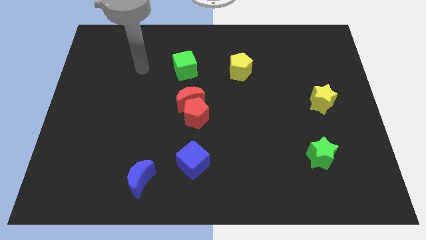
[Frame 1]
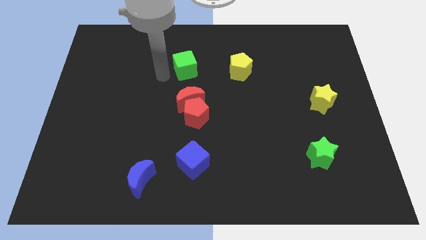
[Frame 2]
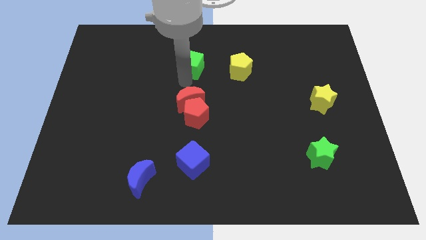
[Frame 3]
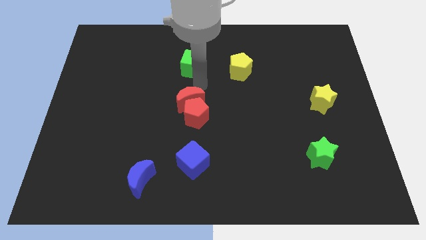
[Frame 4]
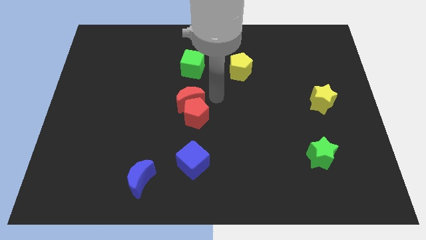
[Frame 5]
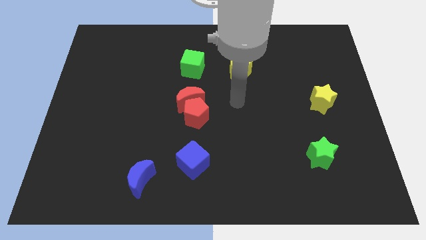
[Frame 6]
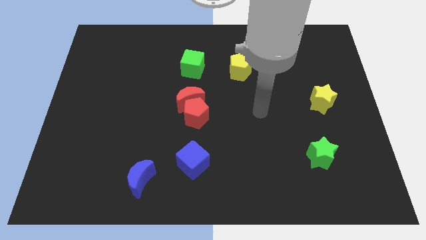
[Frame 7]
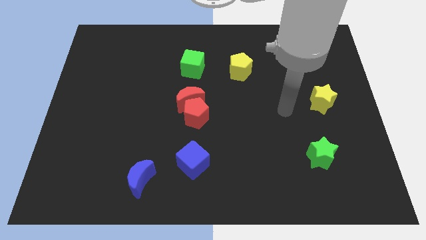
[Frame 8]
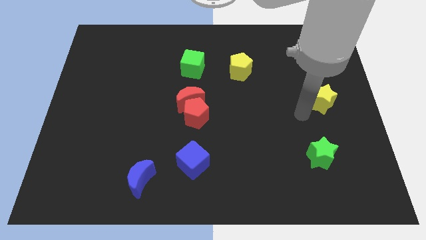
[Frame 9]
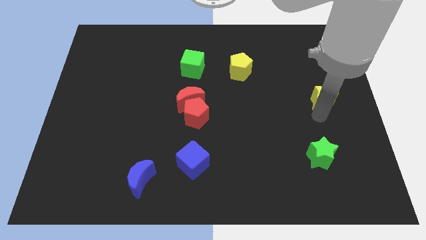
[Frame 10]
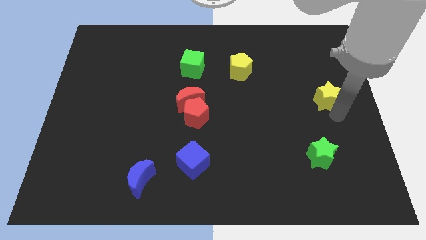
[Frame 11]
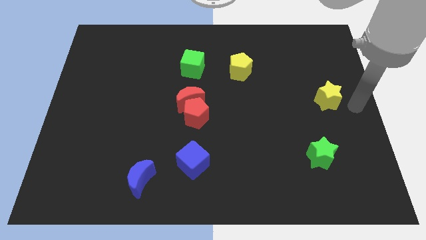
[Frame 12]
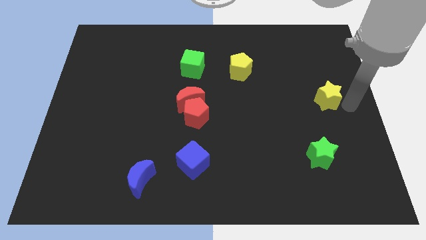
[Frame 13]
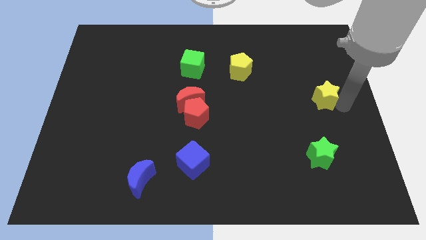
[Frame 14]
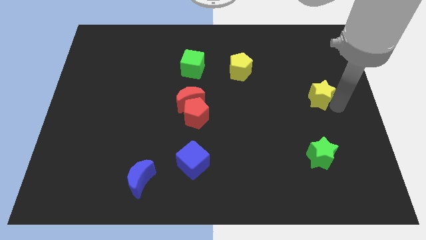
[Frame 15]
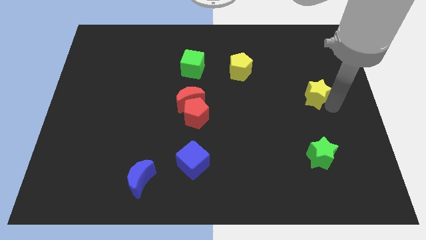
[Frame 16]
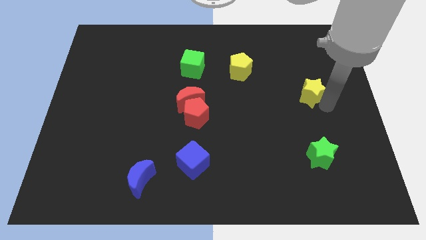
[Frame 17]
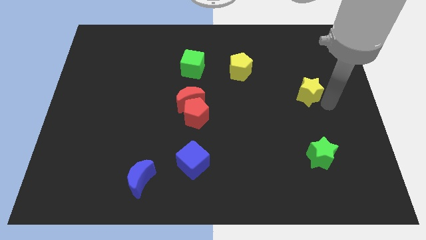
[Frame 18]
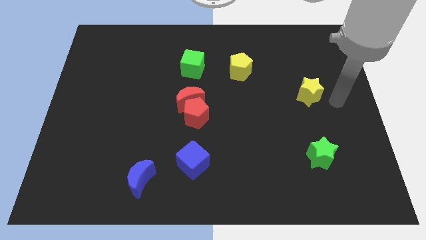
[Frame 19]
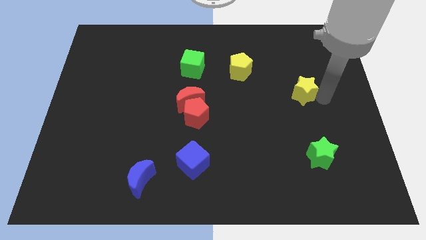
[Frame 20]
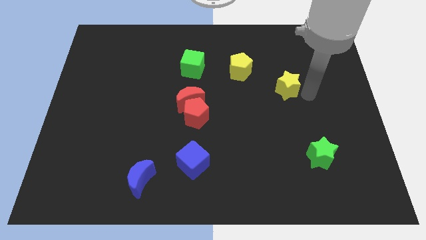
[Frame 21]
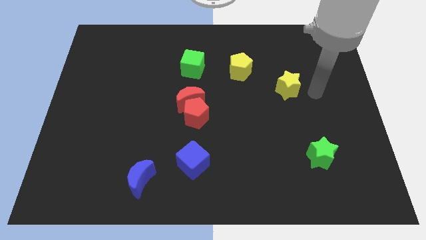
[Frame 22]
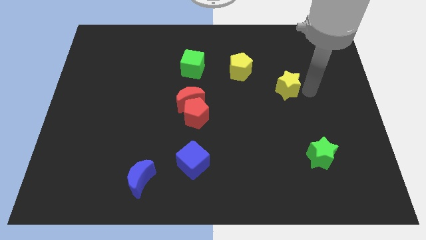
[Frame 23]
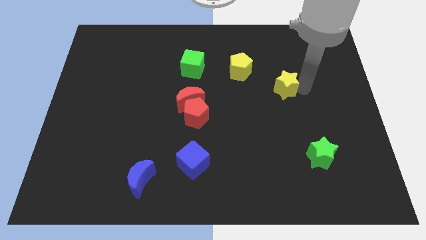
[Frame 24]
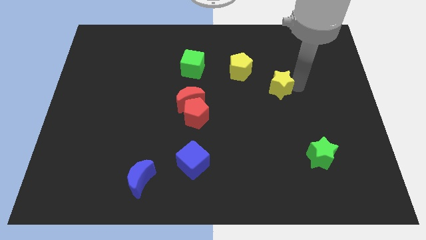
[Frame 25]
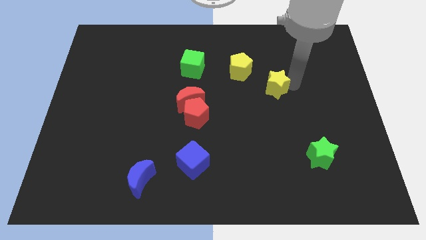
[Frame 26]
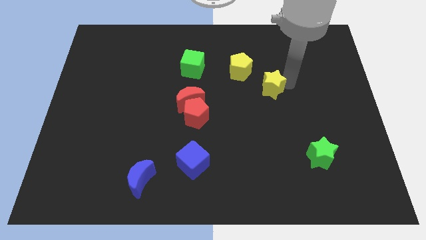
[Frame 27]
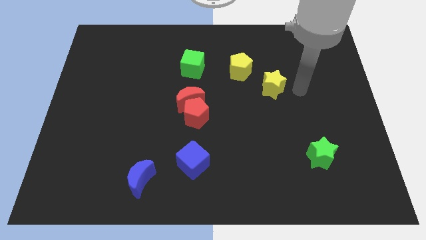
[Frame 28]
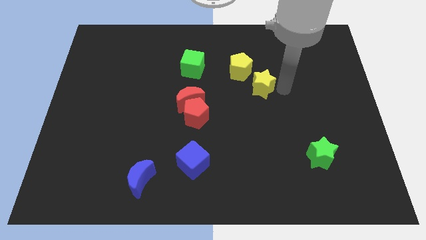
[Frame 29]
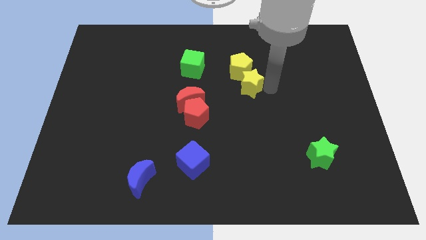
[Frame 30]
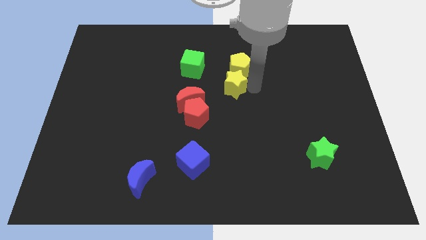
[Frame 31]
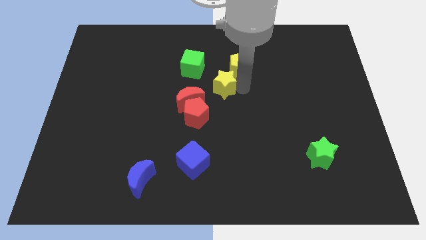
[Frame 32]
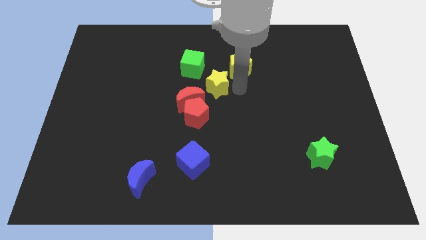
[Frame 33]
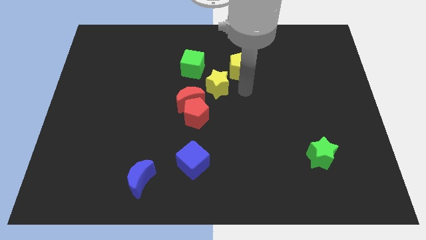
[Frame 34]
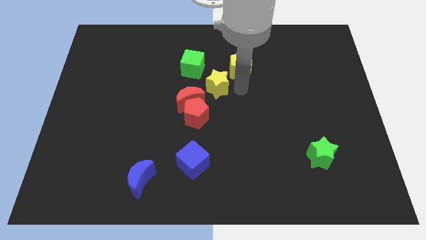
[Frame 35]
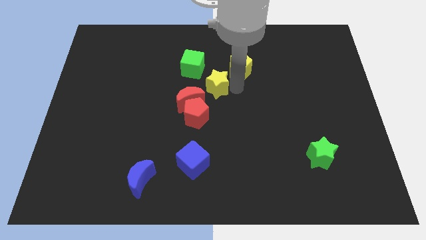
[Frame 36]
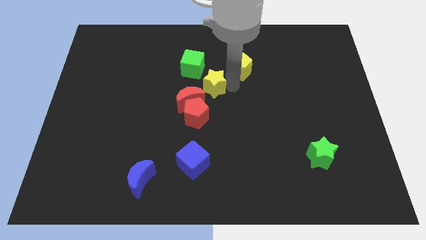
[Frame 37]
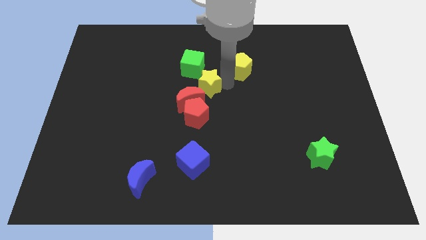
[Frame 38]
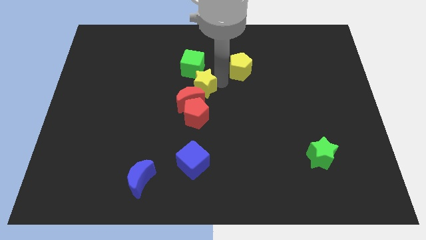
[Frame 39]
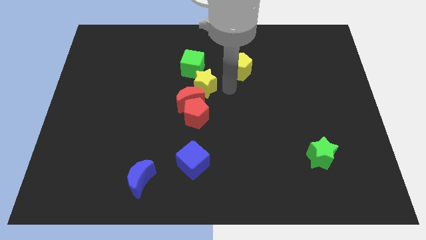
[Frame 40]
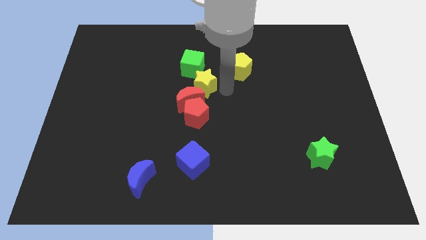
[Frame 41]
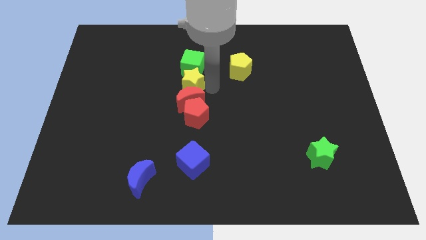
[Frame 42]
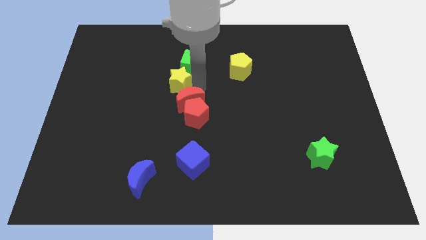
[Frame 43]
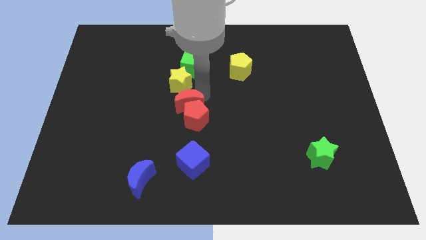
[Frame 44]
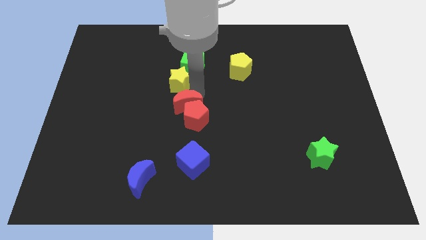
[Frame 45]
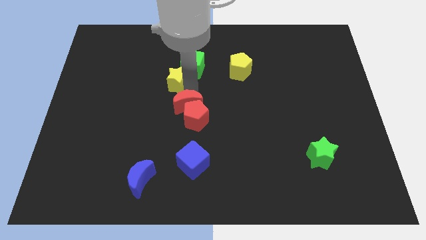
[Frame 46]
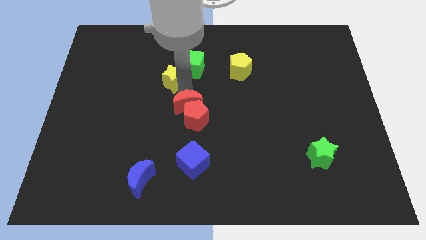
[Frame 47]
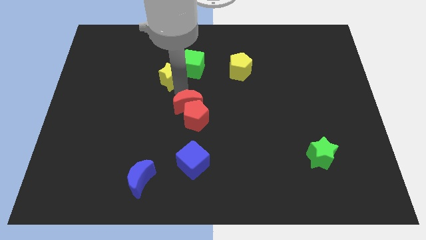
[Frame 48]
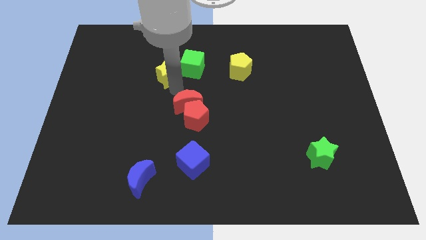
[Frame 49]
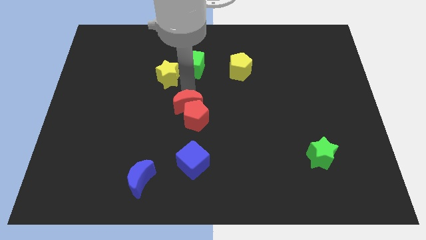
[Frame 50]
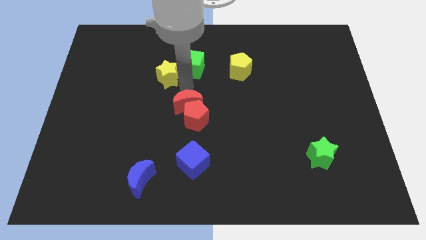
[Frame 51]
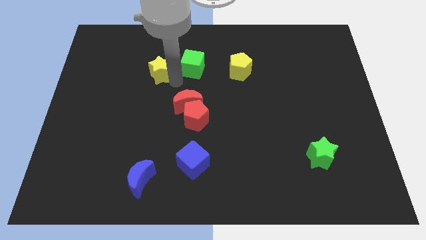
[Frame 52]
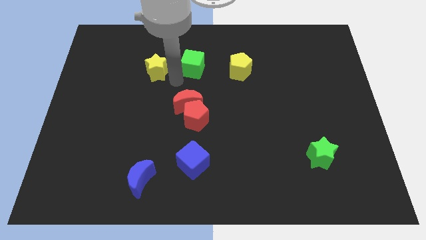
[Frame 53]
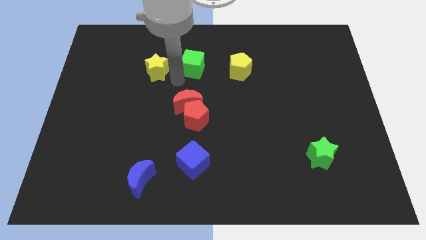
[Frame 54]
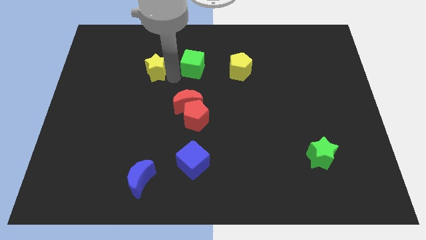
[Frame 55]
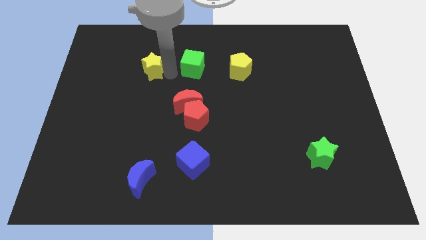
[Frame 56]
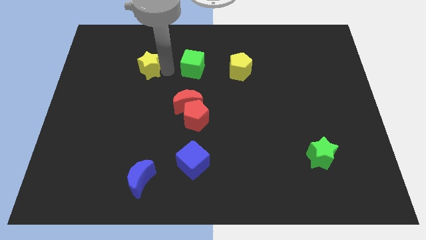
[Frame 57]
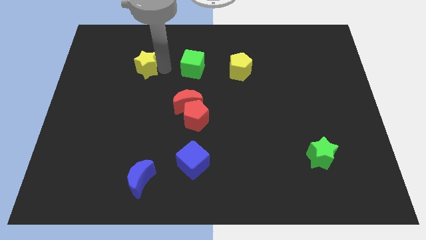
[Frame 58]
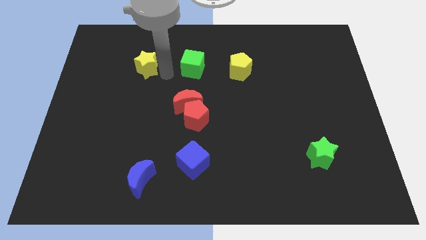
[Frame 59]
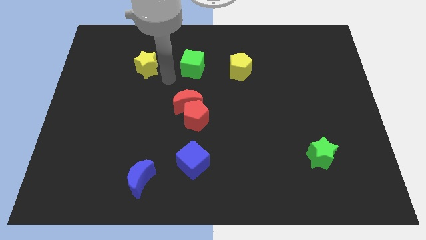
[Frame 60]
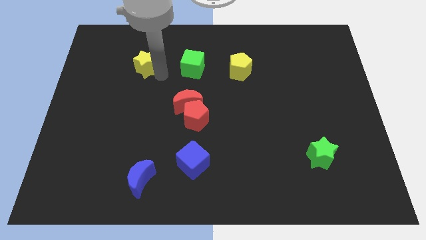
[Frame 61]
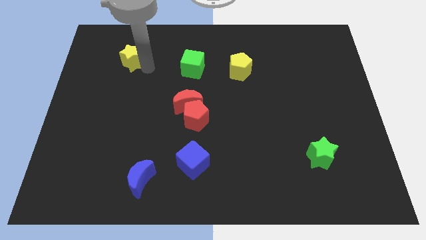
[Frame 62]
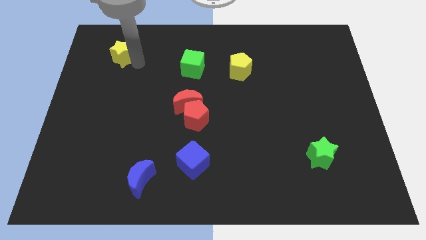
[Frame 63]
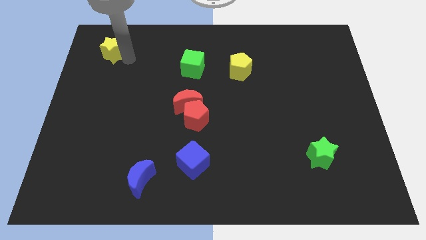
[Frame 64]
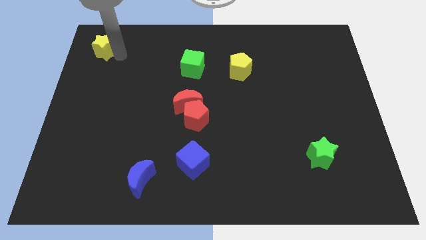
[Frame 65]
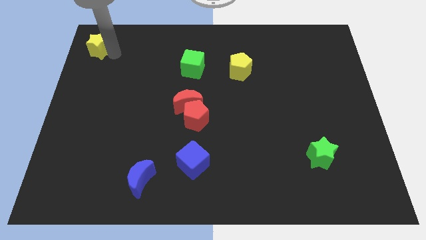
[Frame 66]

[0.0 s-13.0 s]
put the yellow star to the top left of the board
